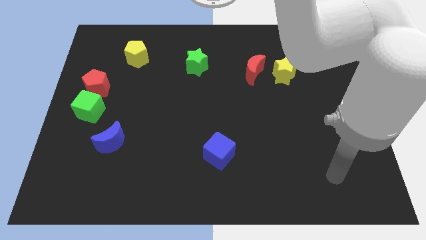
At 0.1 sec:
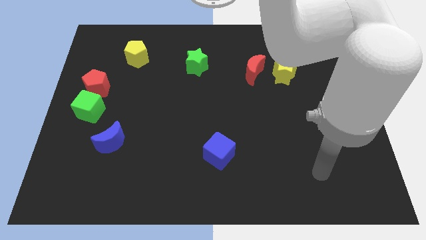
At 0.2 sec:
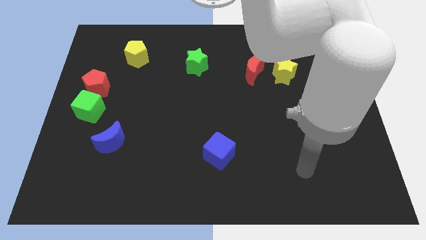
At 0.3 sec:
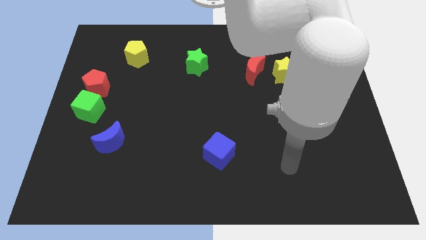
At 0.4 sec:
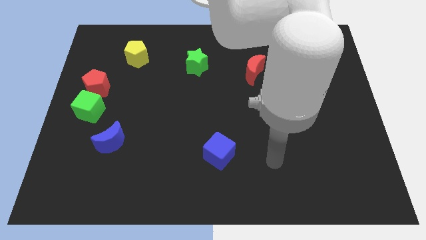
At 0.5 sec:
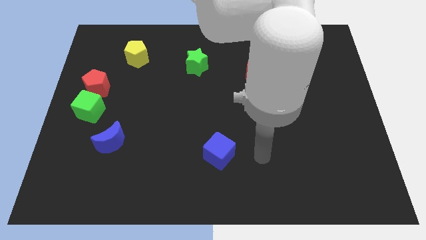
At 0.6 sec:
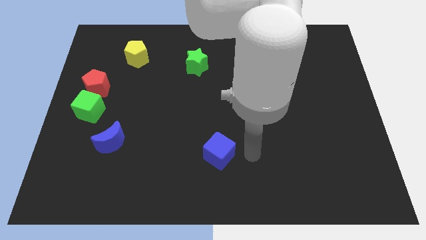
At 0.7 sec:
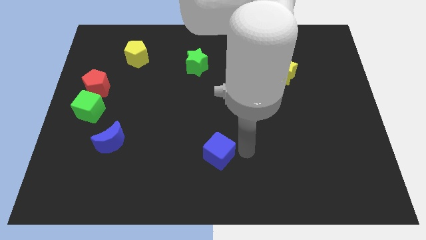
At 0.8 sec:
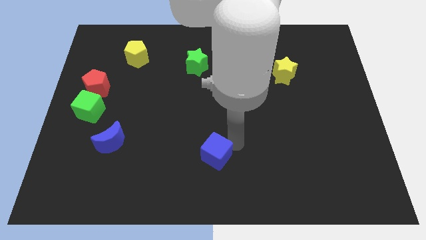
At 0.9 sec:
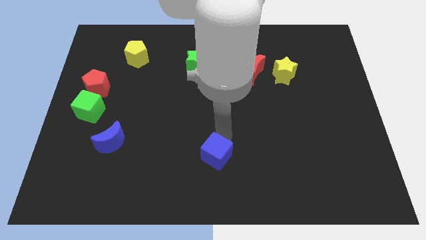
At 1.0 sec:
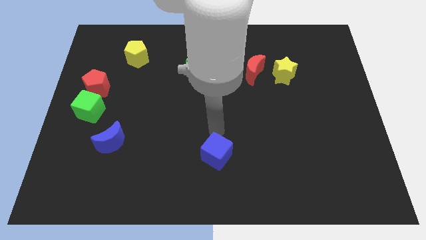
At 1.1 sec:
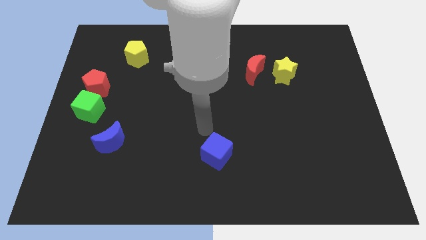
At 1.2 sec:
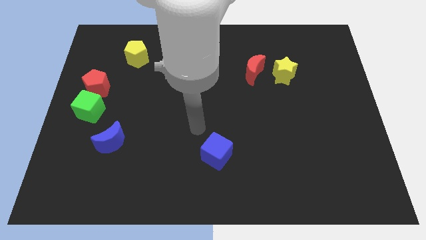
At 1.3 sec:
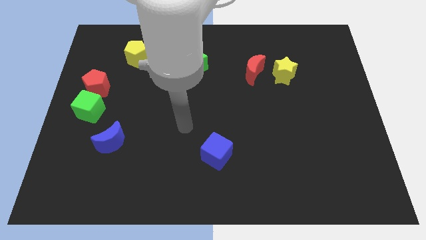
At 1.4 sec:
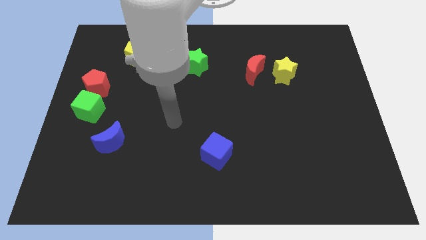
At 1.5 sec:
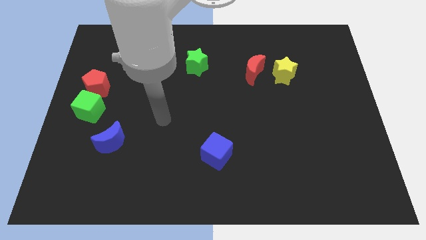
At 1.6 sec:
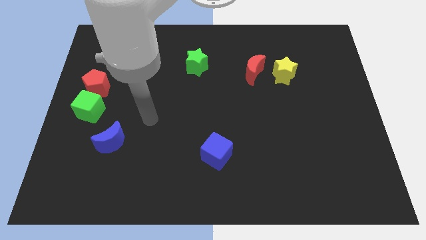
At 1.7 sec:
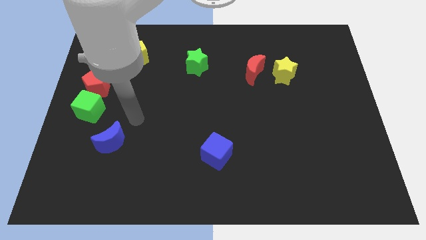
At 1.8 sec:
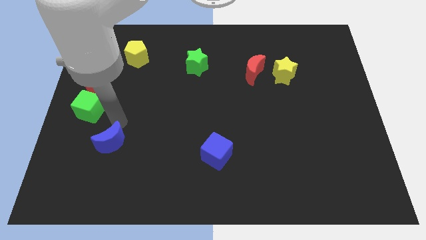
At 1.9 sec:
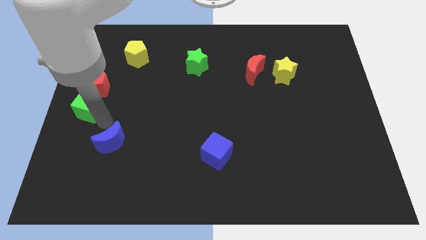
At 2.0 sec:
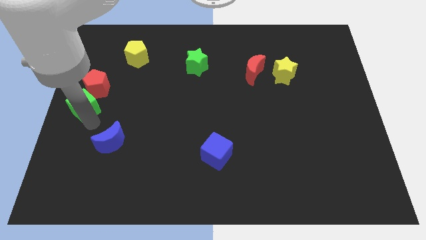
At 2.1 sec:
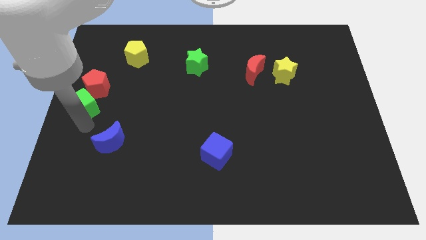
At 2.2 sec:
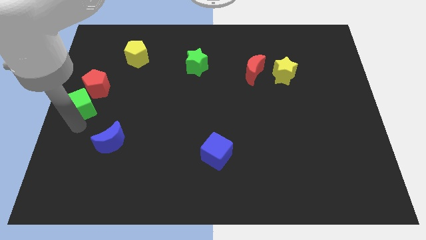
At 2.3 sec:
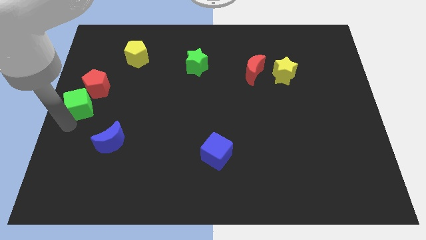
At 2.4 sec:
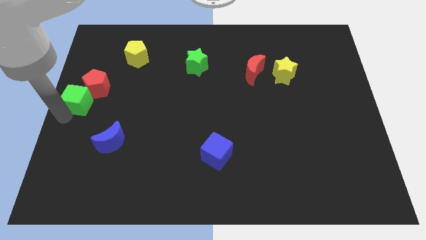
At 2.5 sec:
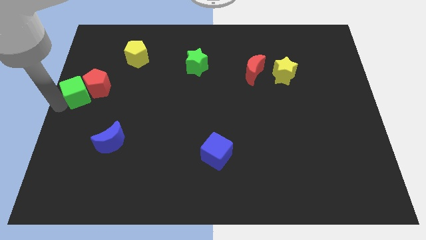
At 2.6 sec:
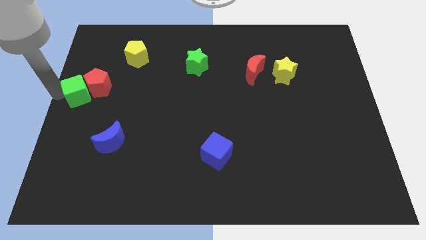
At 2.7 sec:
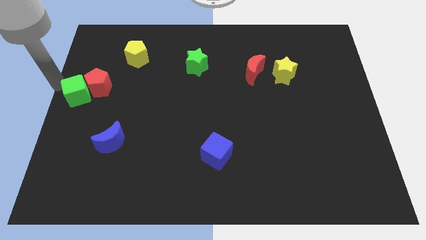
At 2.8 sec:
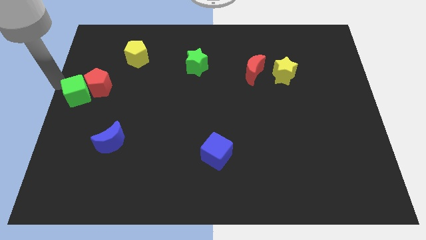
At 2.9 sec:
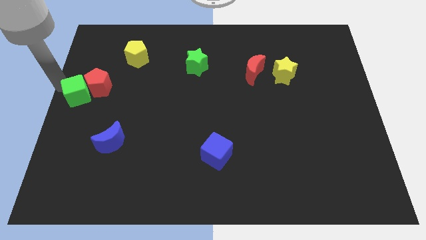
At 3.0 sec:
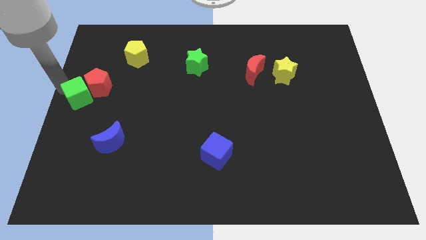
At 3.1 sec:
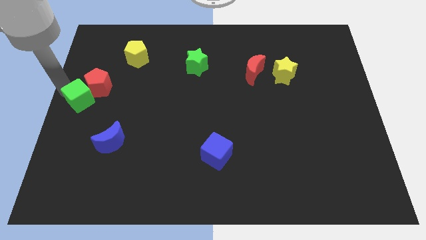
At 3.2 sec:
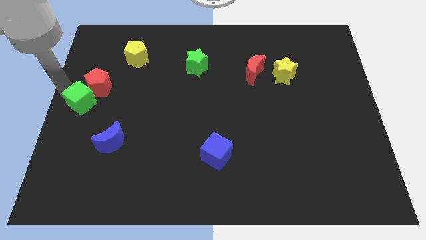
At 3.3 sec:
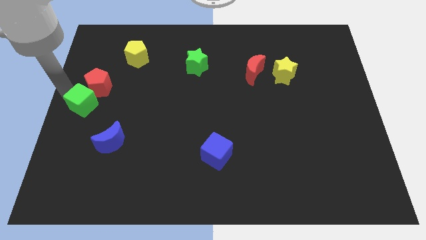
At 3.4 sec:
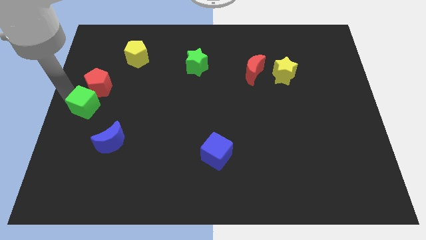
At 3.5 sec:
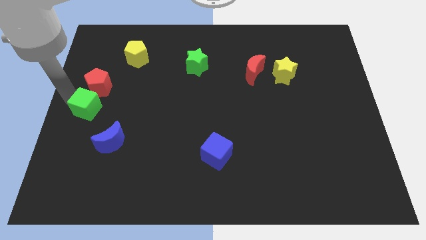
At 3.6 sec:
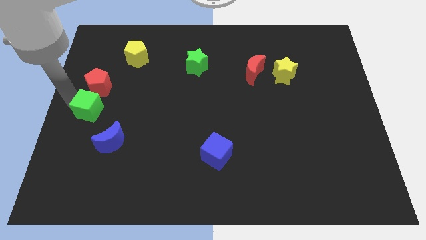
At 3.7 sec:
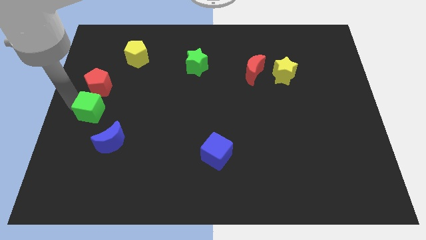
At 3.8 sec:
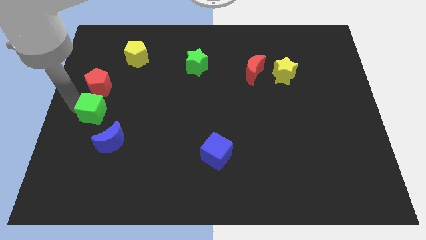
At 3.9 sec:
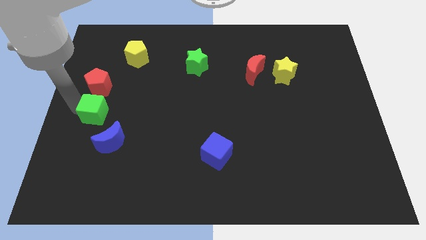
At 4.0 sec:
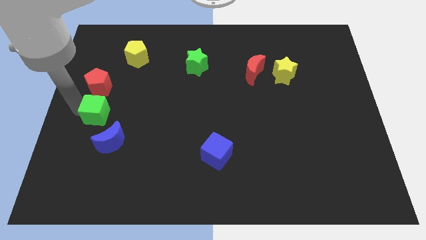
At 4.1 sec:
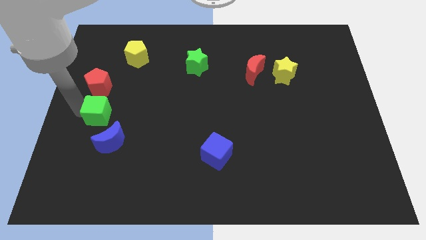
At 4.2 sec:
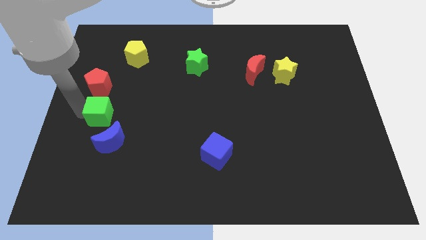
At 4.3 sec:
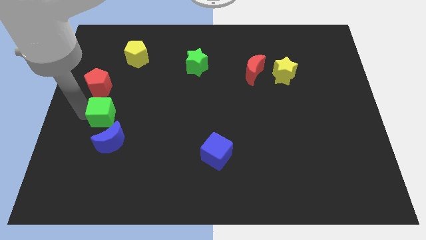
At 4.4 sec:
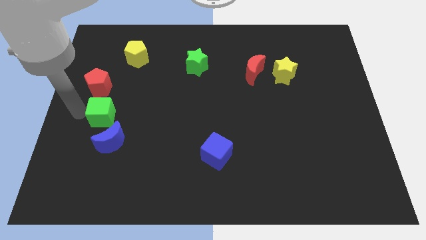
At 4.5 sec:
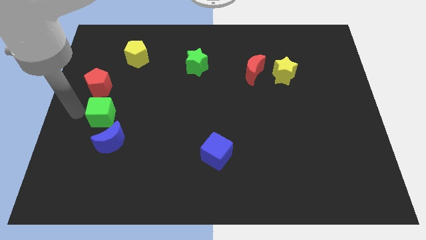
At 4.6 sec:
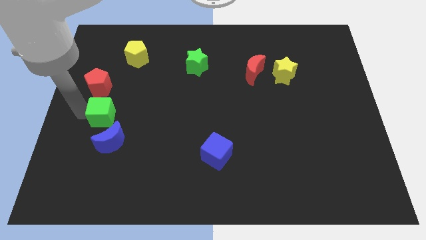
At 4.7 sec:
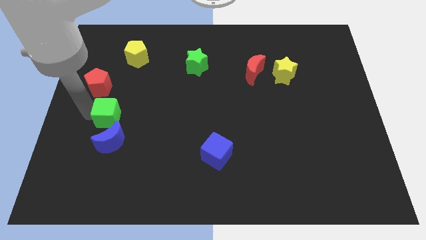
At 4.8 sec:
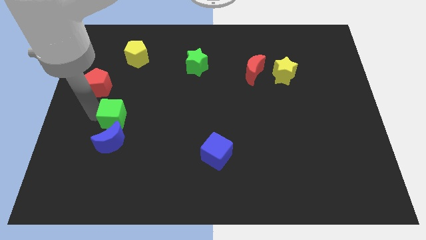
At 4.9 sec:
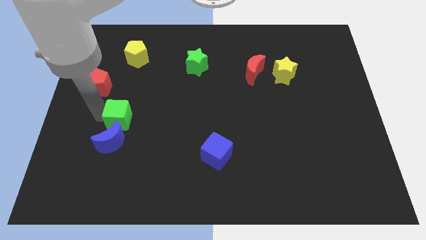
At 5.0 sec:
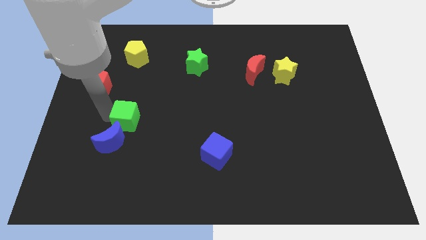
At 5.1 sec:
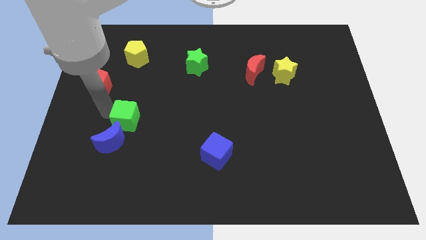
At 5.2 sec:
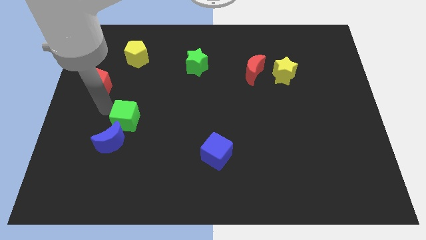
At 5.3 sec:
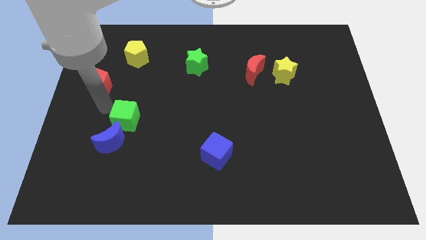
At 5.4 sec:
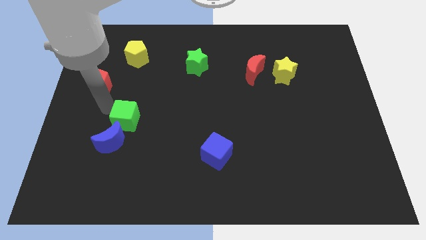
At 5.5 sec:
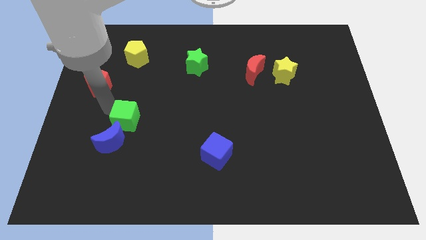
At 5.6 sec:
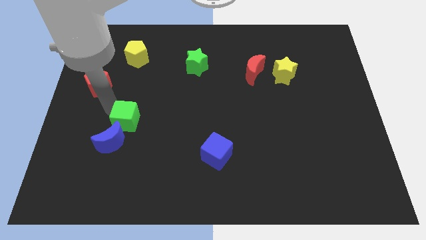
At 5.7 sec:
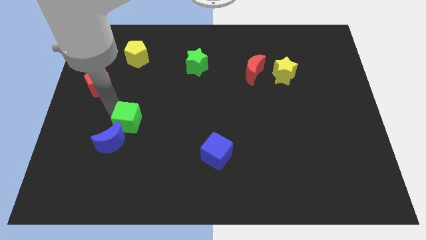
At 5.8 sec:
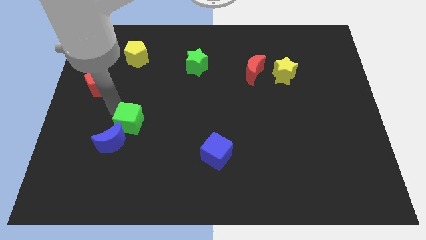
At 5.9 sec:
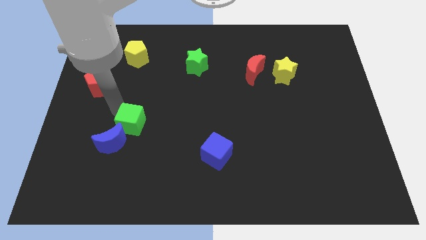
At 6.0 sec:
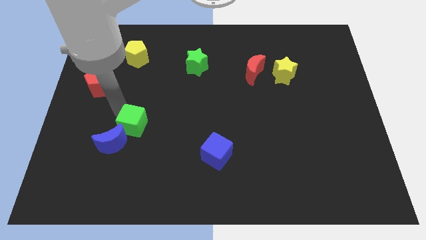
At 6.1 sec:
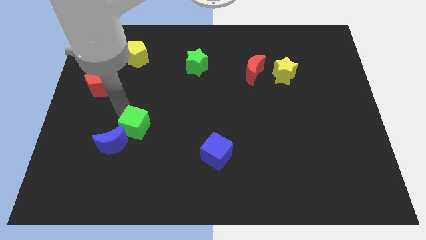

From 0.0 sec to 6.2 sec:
slide the green cube just right of the blue moon

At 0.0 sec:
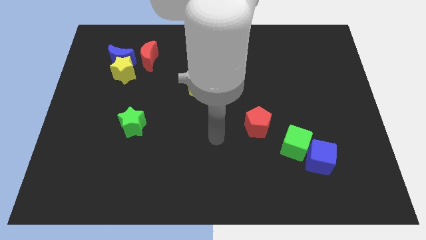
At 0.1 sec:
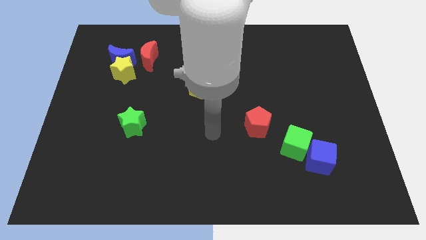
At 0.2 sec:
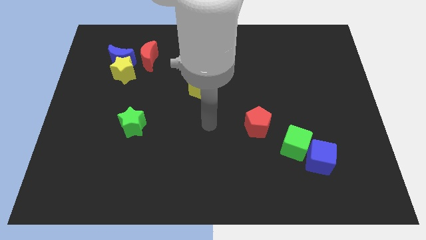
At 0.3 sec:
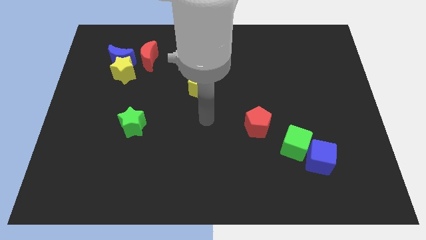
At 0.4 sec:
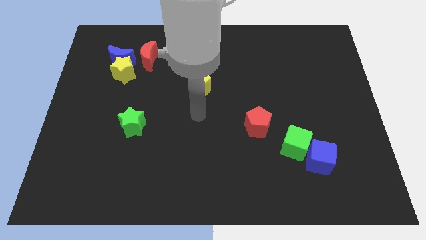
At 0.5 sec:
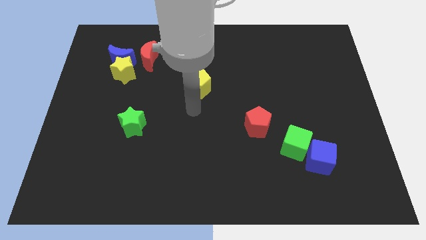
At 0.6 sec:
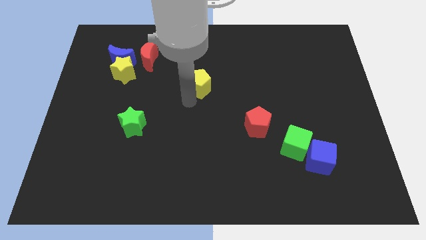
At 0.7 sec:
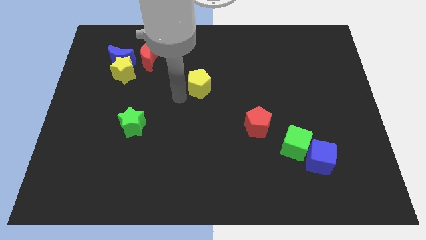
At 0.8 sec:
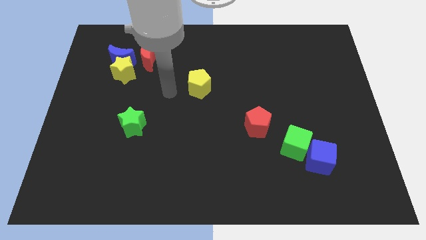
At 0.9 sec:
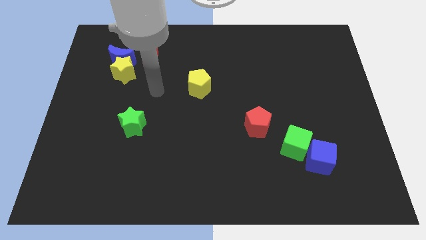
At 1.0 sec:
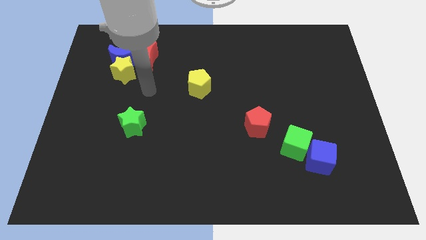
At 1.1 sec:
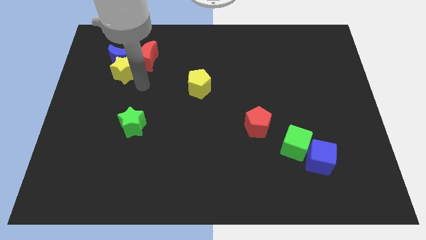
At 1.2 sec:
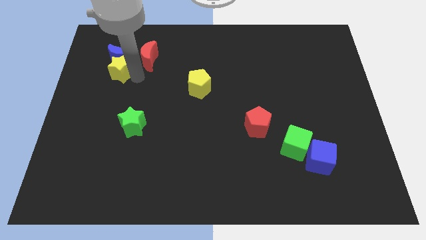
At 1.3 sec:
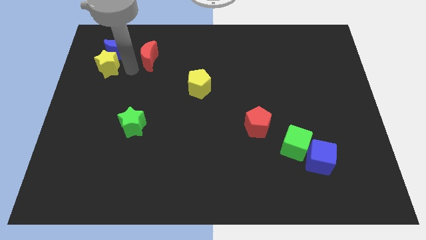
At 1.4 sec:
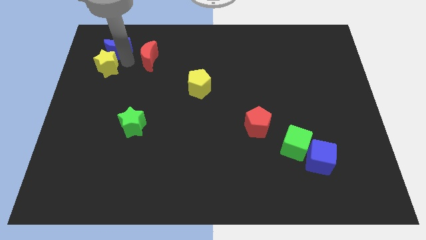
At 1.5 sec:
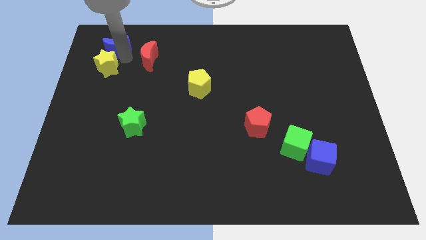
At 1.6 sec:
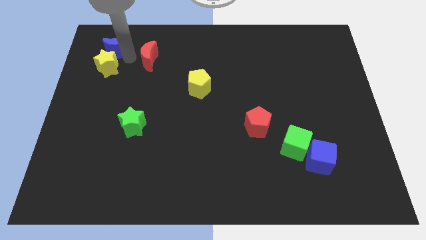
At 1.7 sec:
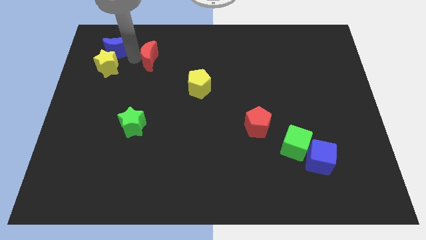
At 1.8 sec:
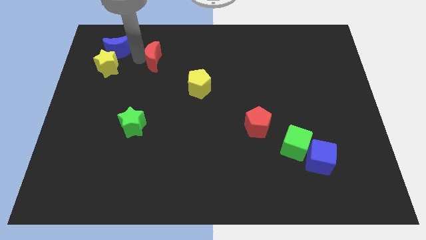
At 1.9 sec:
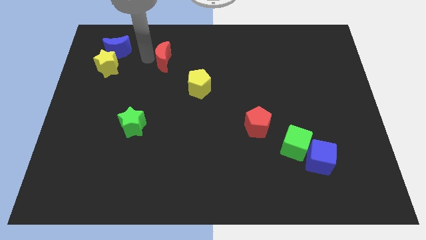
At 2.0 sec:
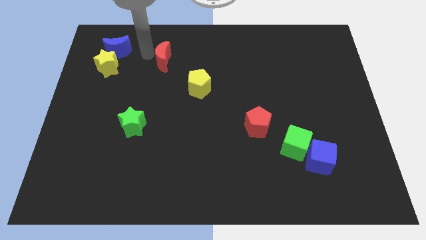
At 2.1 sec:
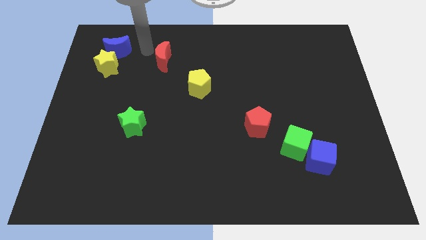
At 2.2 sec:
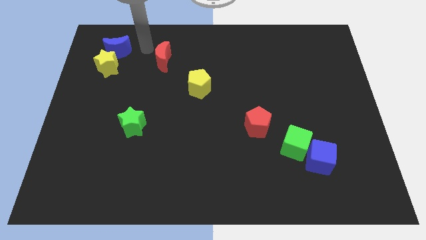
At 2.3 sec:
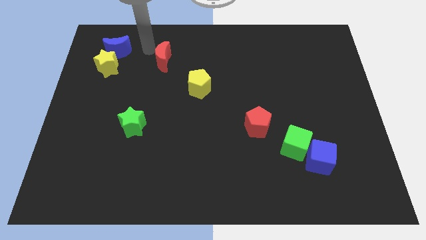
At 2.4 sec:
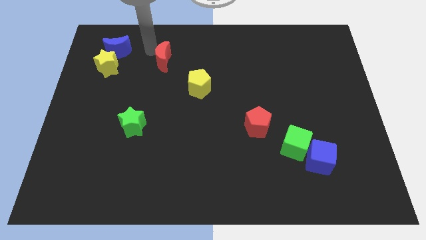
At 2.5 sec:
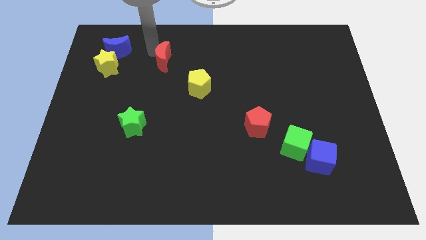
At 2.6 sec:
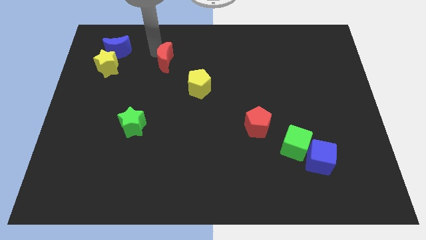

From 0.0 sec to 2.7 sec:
put the red moon to the top left side of the yellow pentagon
